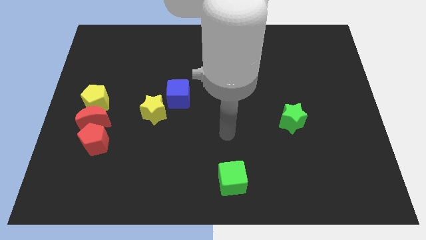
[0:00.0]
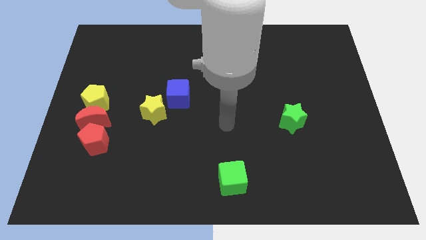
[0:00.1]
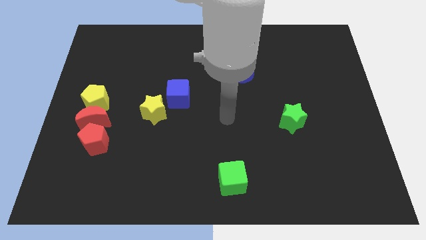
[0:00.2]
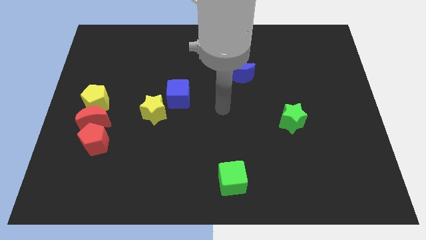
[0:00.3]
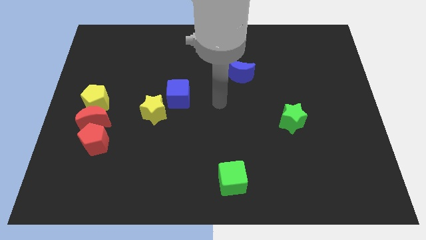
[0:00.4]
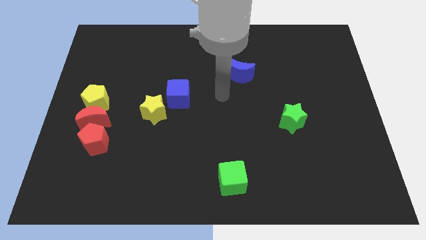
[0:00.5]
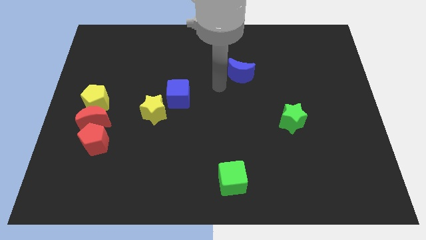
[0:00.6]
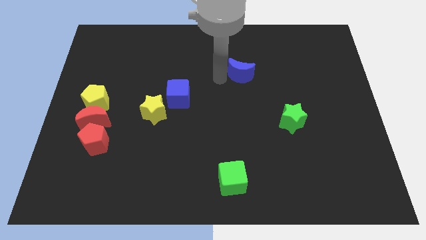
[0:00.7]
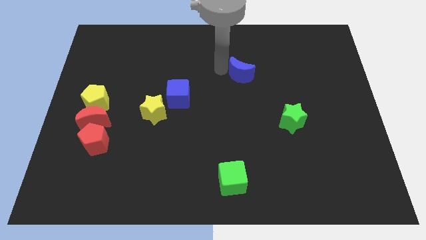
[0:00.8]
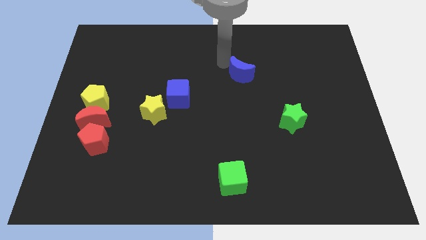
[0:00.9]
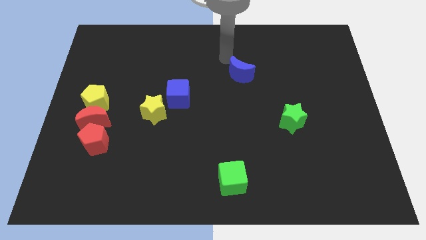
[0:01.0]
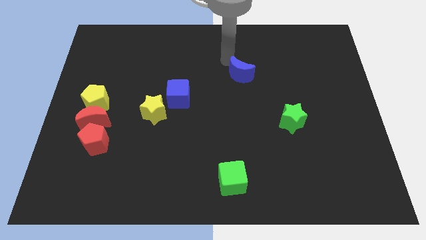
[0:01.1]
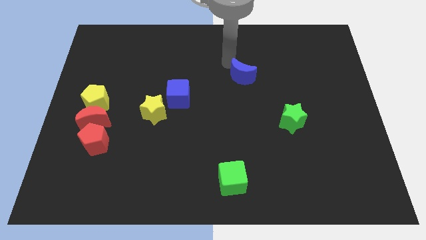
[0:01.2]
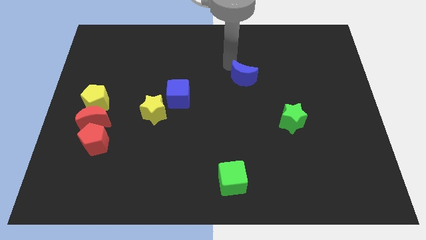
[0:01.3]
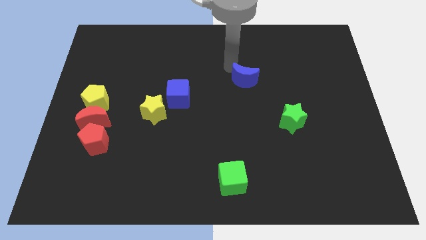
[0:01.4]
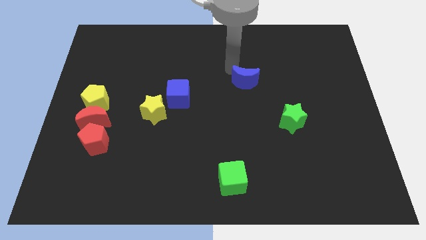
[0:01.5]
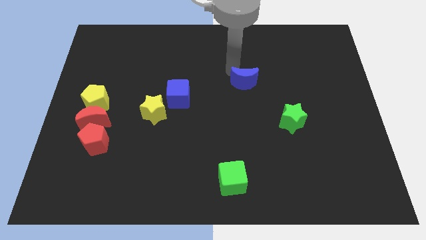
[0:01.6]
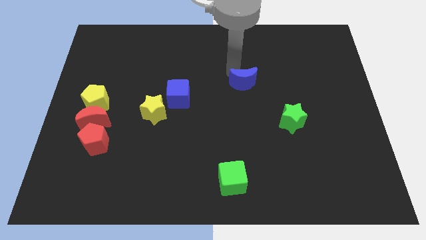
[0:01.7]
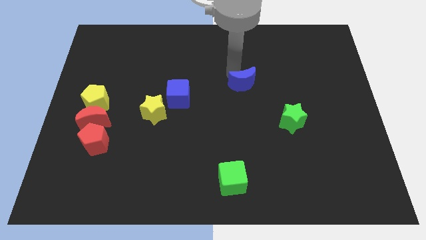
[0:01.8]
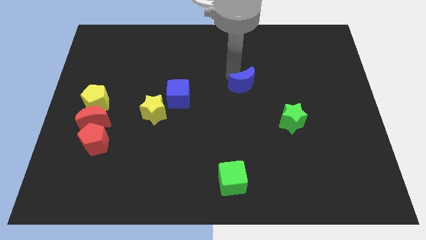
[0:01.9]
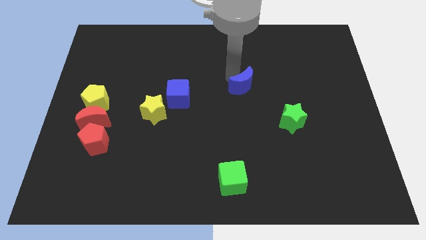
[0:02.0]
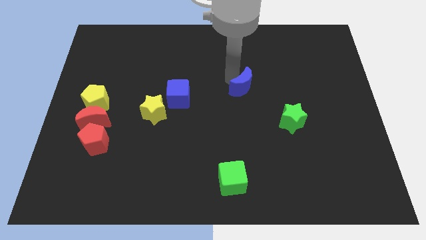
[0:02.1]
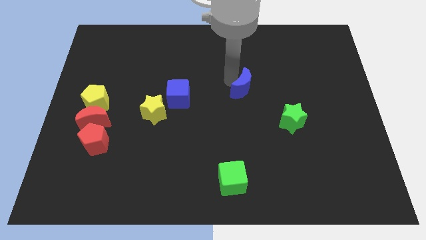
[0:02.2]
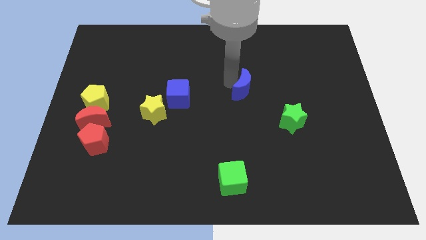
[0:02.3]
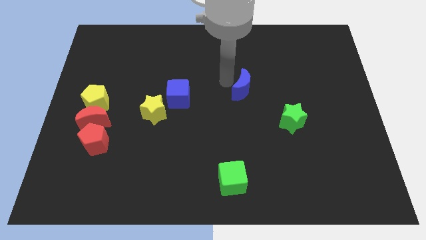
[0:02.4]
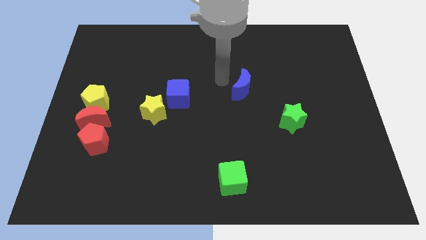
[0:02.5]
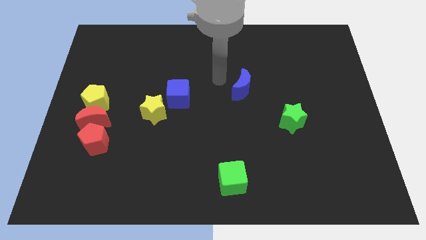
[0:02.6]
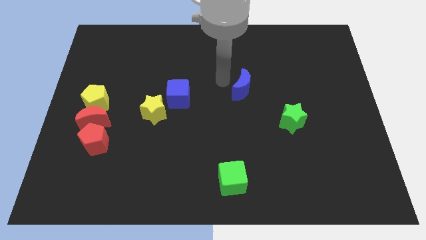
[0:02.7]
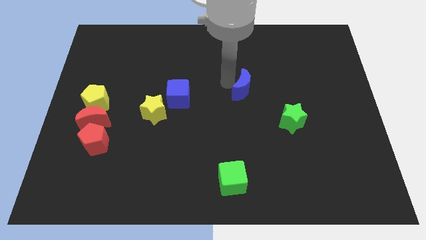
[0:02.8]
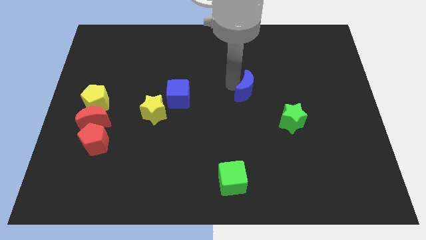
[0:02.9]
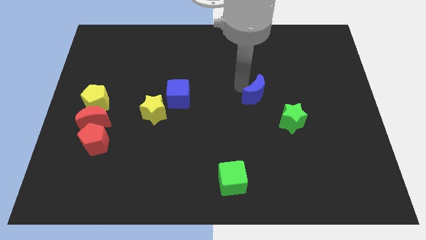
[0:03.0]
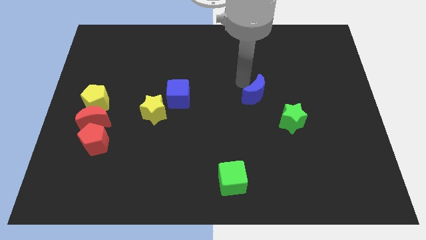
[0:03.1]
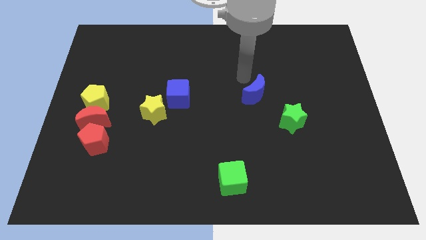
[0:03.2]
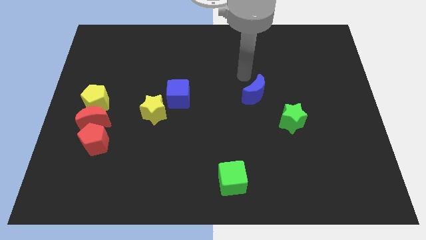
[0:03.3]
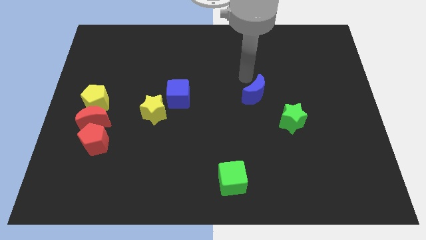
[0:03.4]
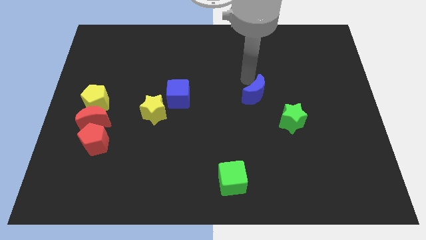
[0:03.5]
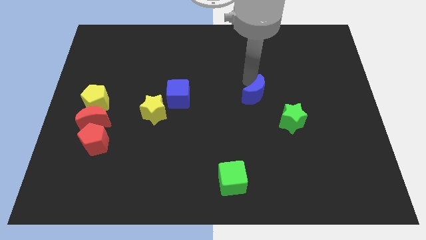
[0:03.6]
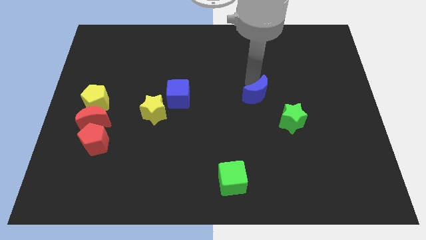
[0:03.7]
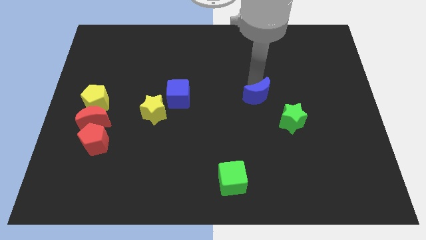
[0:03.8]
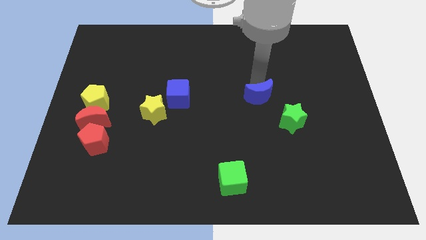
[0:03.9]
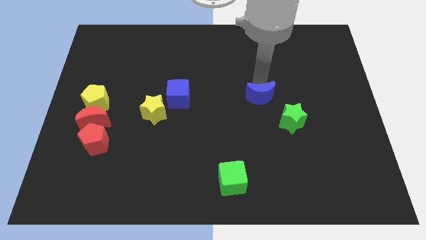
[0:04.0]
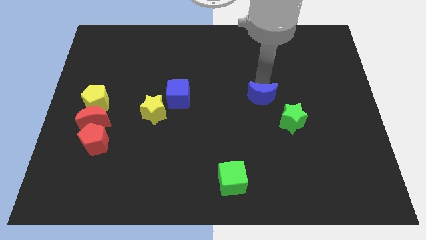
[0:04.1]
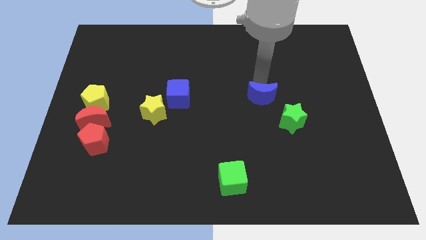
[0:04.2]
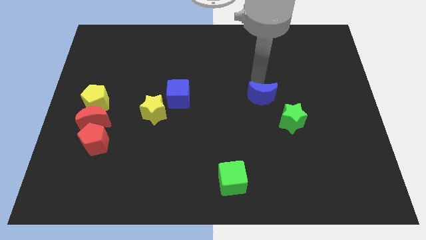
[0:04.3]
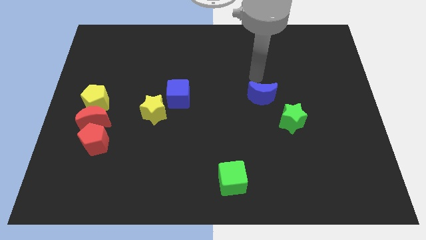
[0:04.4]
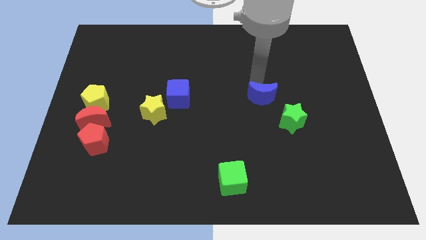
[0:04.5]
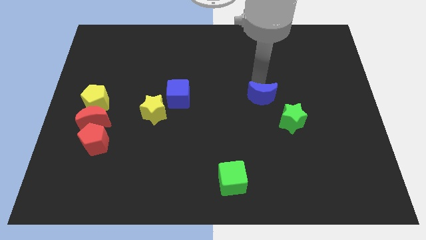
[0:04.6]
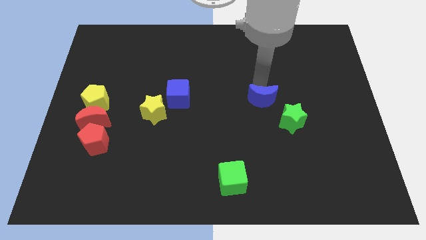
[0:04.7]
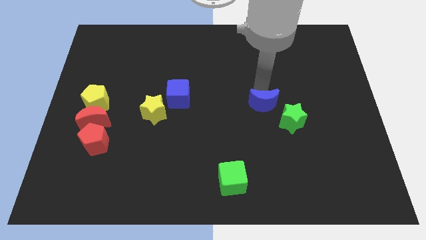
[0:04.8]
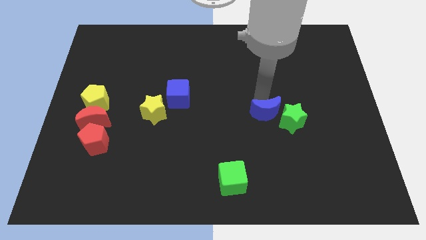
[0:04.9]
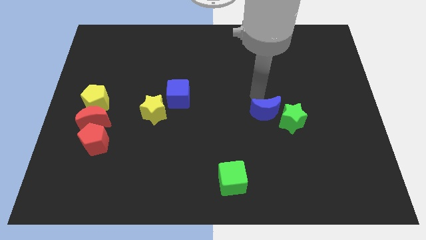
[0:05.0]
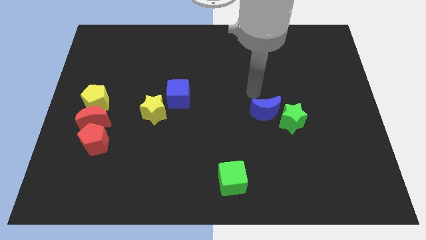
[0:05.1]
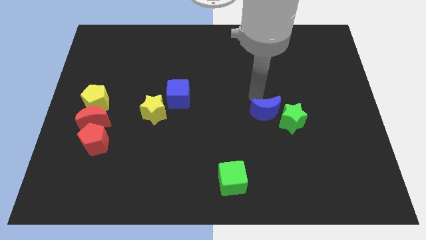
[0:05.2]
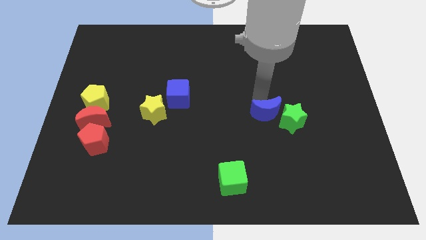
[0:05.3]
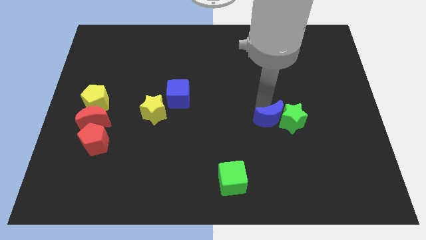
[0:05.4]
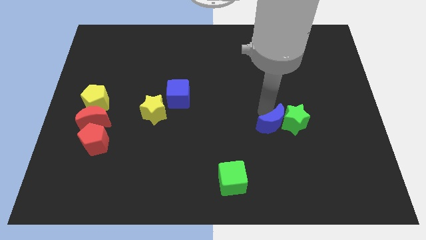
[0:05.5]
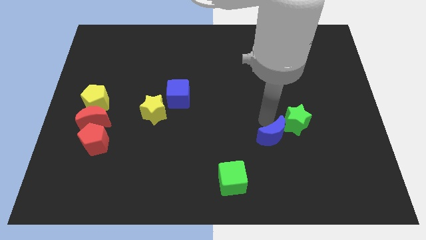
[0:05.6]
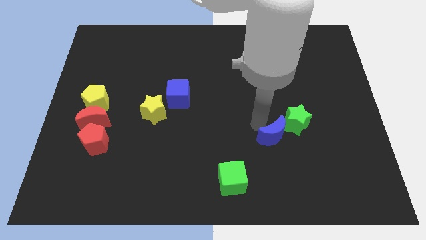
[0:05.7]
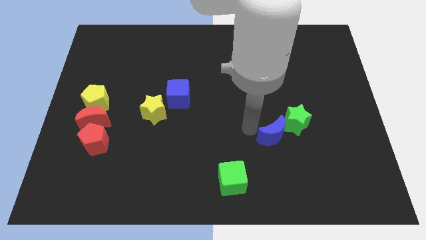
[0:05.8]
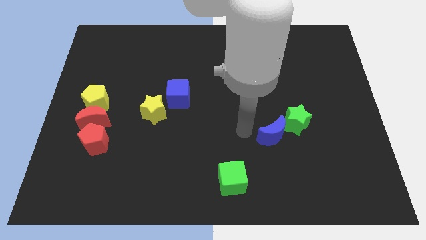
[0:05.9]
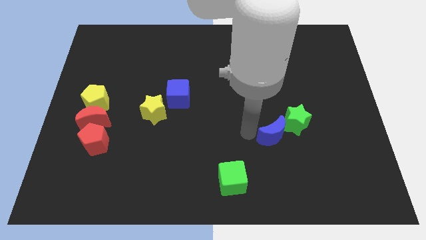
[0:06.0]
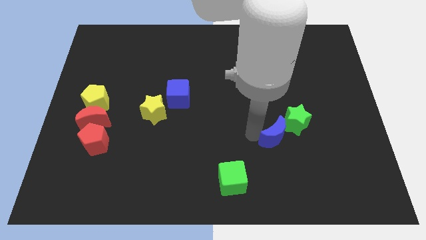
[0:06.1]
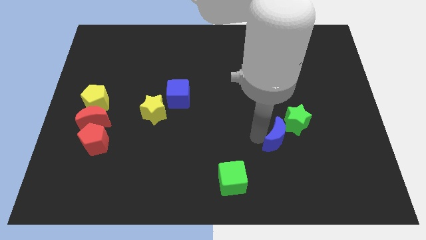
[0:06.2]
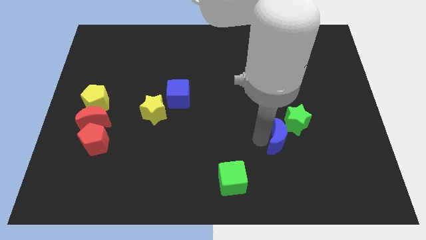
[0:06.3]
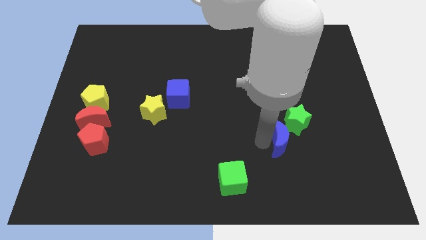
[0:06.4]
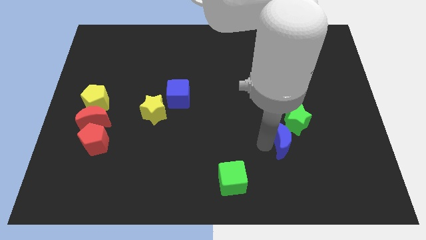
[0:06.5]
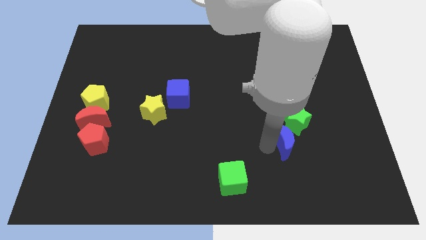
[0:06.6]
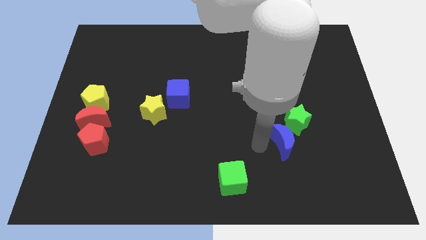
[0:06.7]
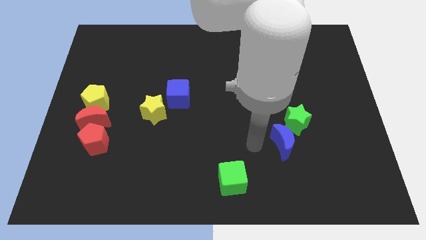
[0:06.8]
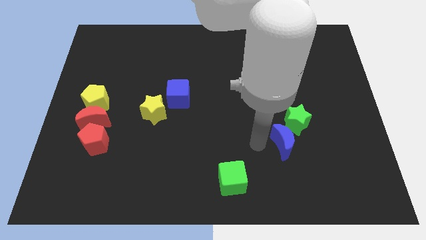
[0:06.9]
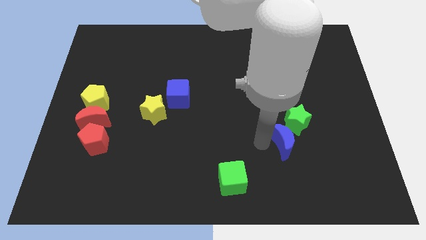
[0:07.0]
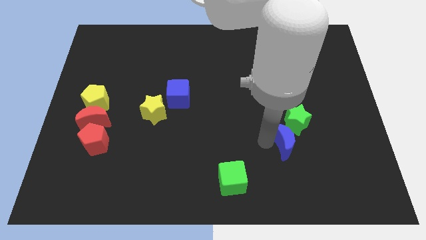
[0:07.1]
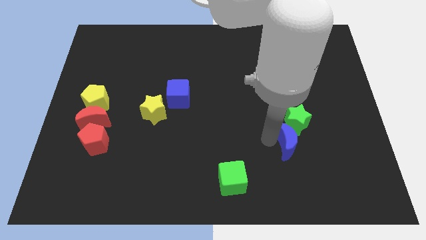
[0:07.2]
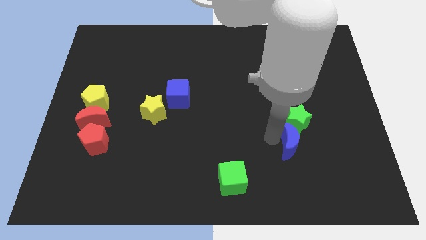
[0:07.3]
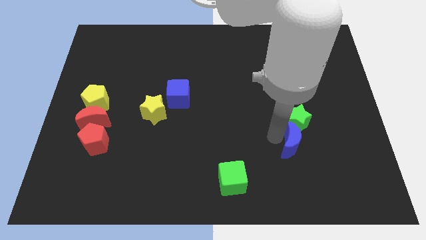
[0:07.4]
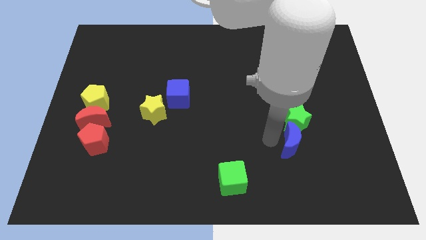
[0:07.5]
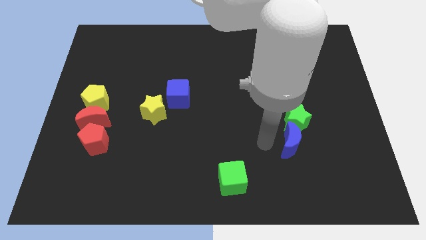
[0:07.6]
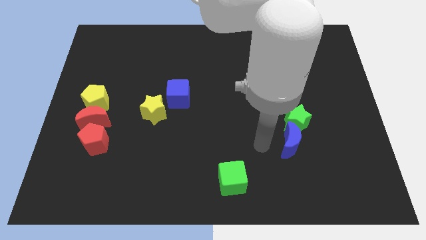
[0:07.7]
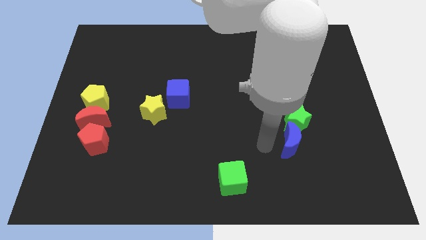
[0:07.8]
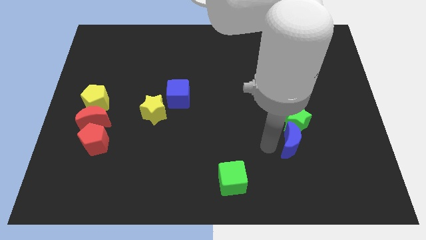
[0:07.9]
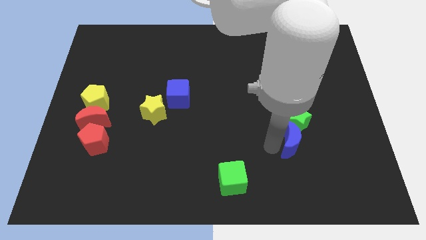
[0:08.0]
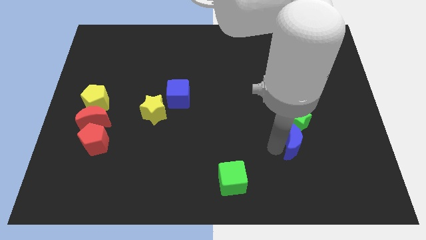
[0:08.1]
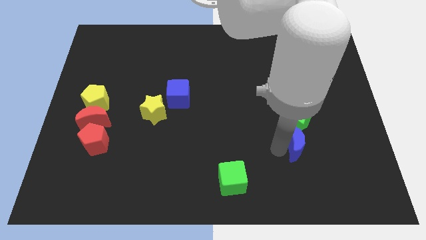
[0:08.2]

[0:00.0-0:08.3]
slide the blue moon to the bottom right of the green star
